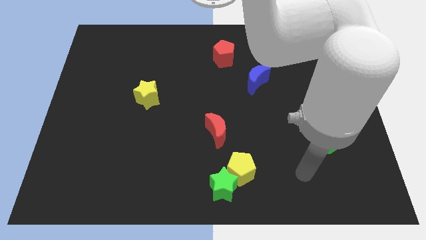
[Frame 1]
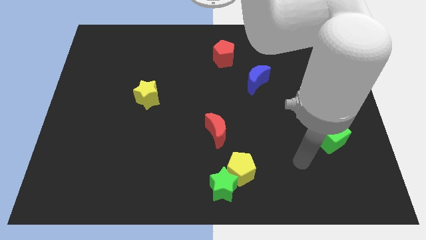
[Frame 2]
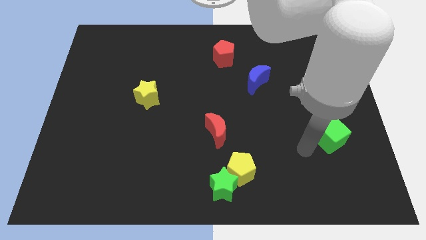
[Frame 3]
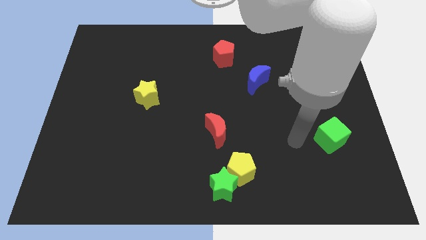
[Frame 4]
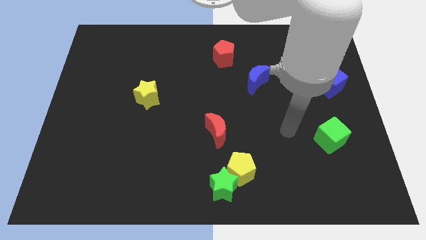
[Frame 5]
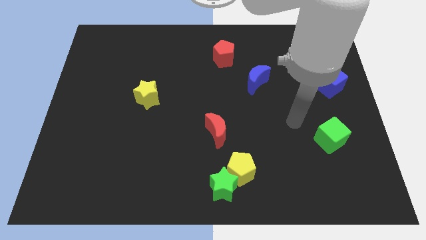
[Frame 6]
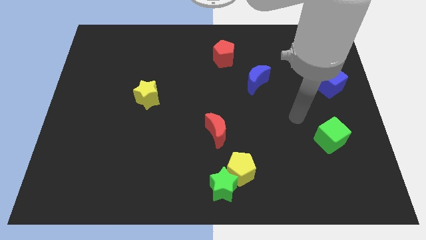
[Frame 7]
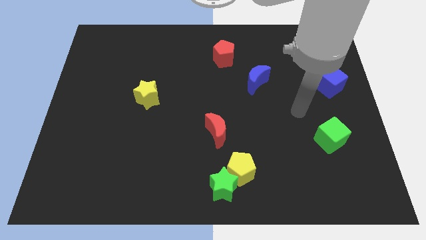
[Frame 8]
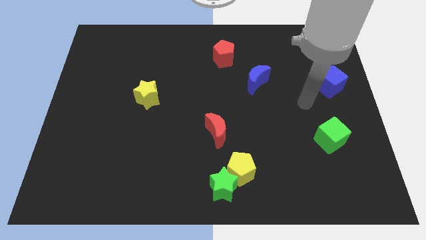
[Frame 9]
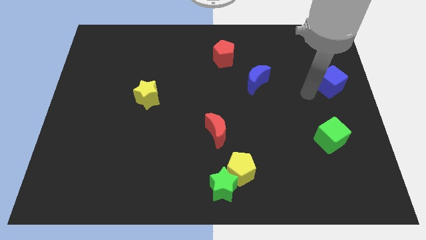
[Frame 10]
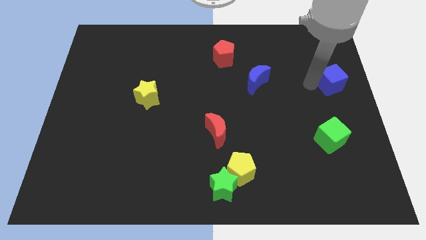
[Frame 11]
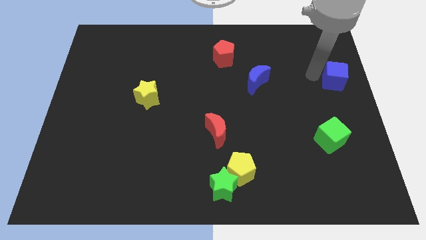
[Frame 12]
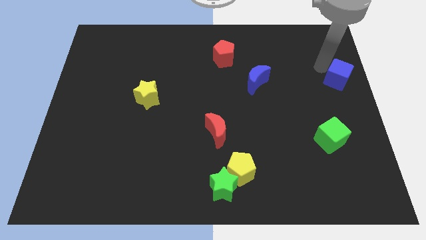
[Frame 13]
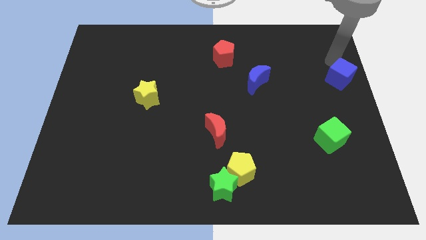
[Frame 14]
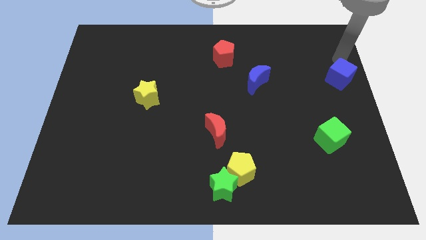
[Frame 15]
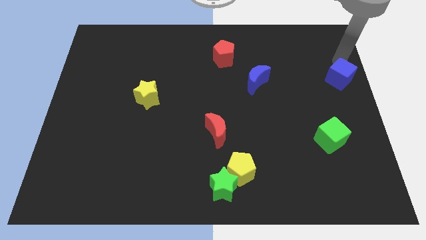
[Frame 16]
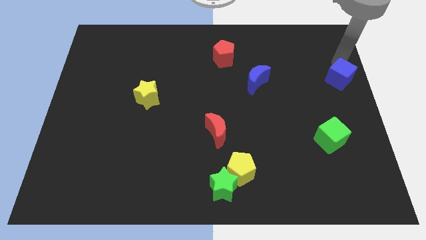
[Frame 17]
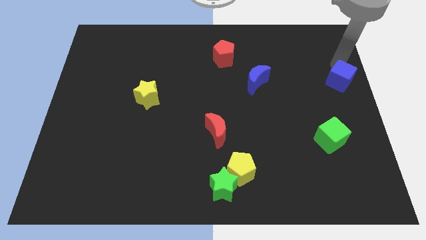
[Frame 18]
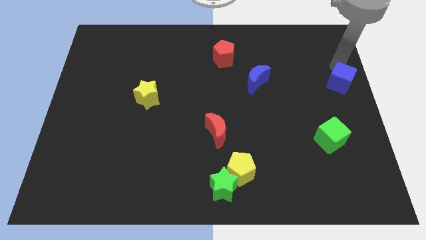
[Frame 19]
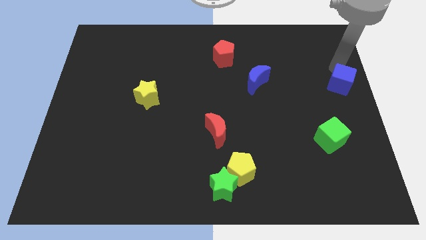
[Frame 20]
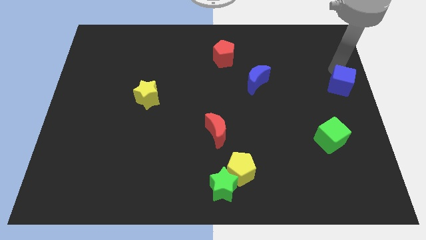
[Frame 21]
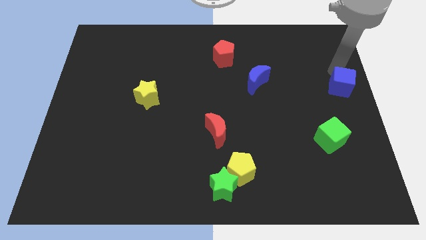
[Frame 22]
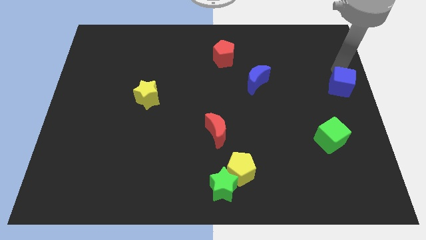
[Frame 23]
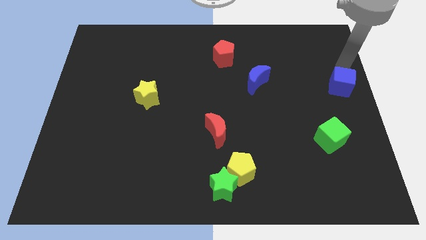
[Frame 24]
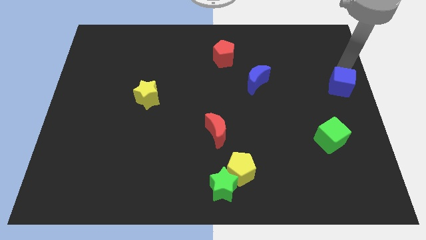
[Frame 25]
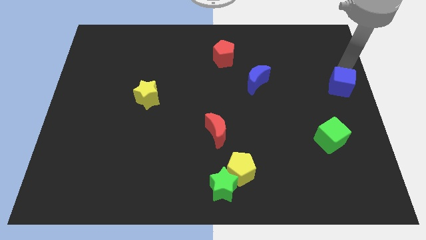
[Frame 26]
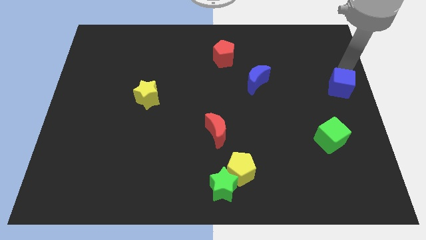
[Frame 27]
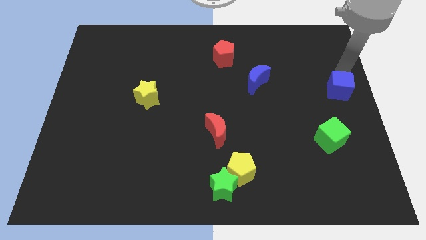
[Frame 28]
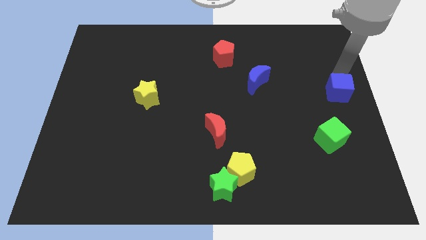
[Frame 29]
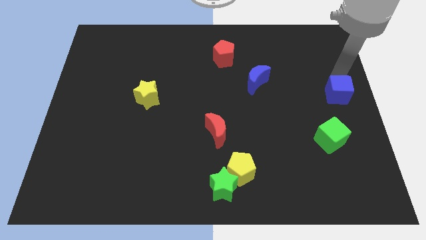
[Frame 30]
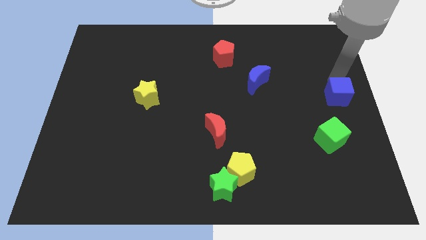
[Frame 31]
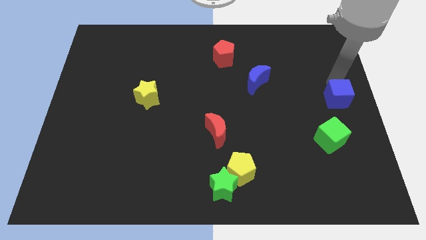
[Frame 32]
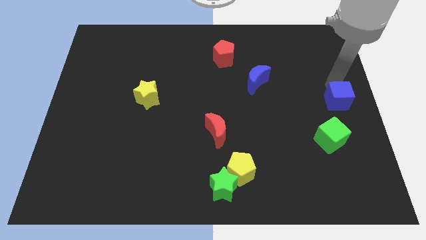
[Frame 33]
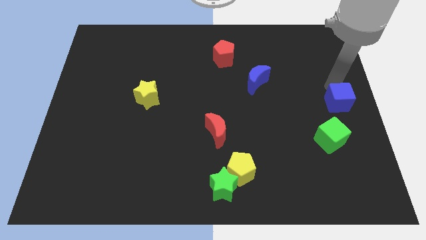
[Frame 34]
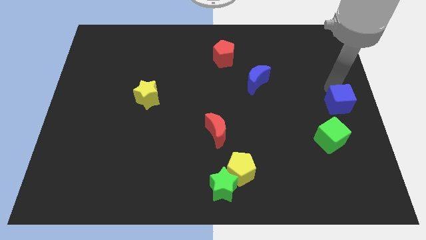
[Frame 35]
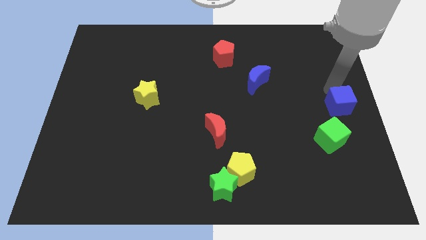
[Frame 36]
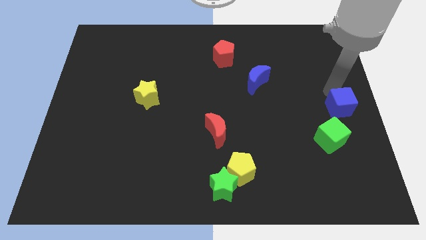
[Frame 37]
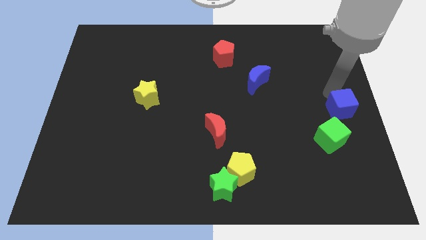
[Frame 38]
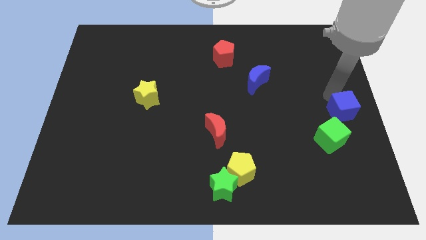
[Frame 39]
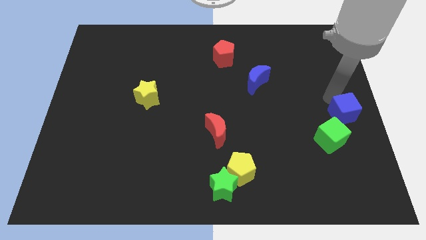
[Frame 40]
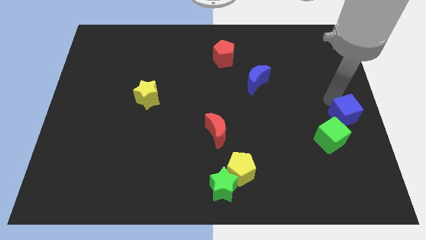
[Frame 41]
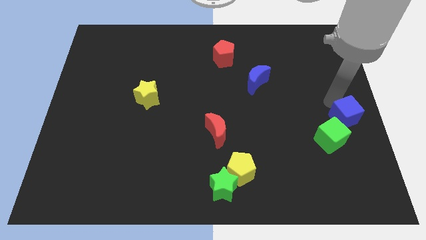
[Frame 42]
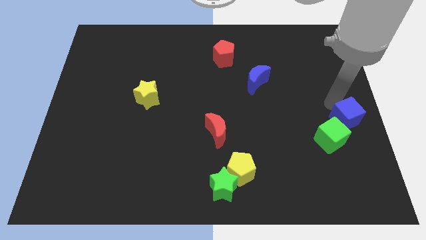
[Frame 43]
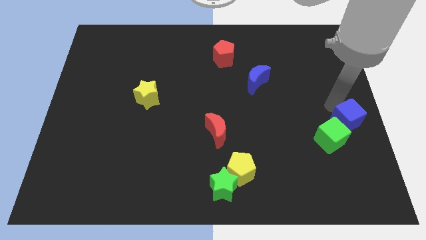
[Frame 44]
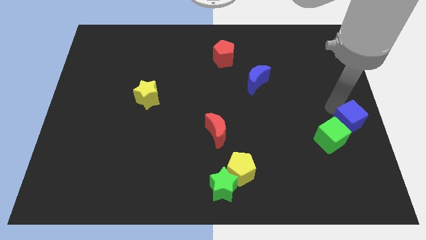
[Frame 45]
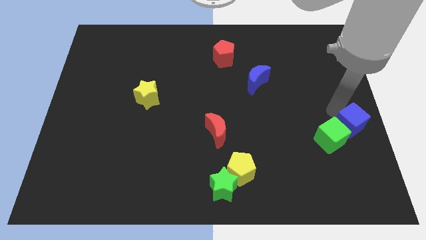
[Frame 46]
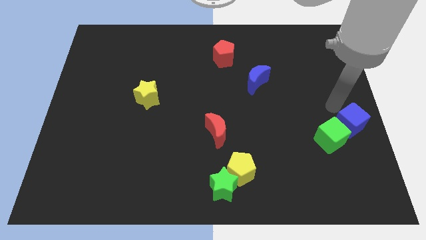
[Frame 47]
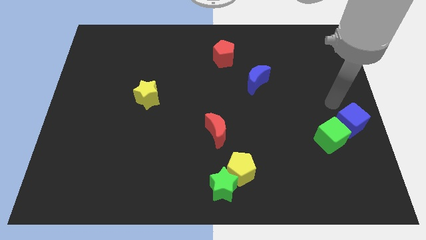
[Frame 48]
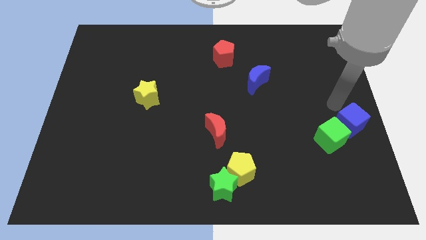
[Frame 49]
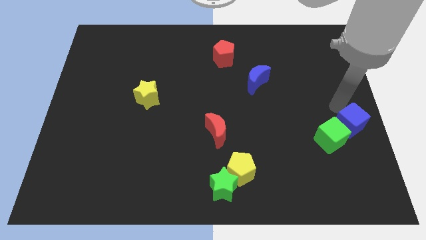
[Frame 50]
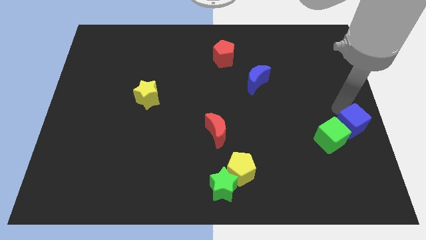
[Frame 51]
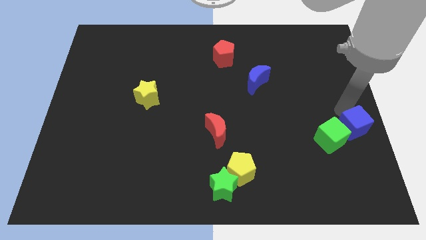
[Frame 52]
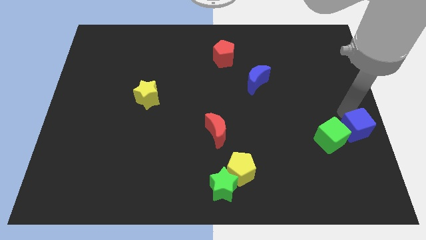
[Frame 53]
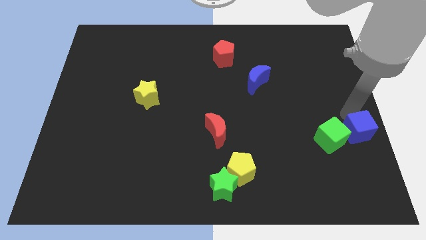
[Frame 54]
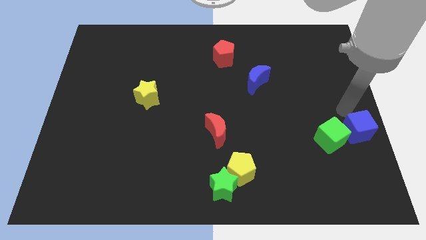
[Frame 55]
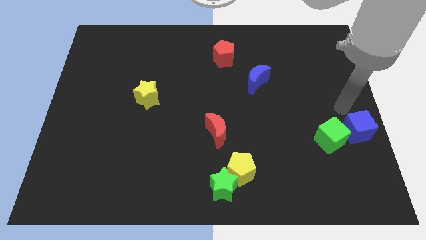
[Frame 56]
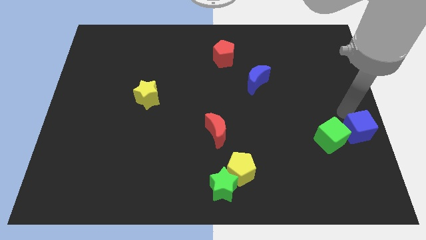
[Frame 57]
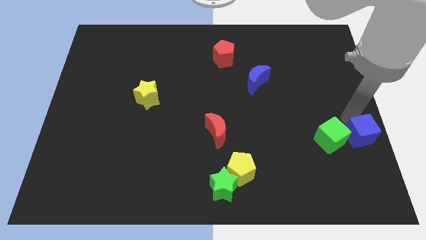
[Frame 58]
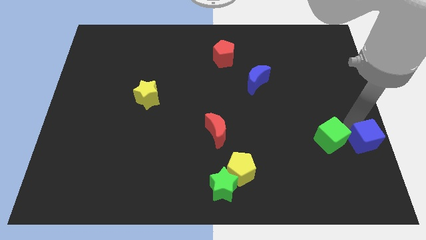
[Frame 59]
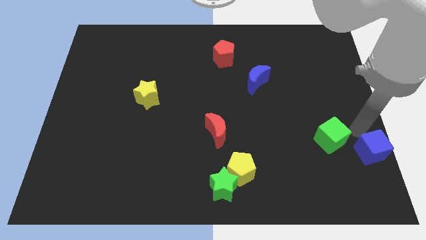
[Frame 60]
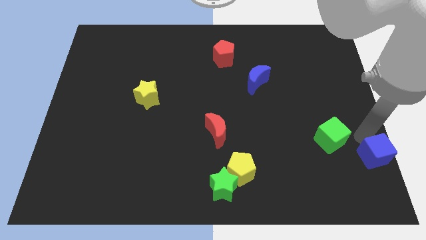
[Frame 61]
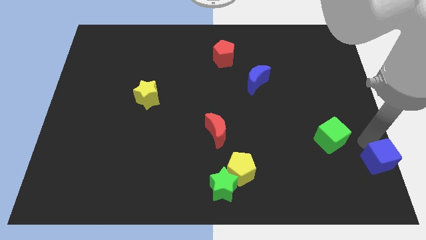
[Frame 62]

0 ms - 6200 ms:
move the blue cube to the lower right corner

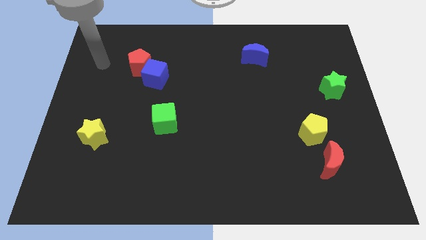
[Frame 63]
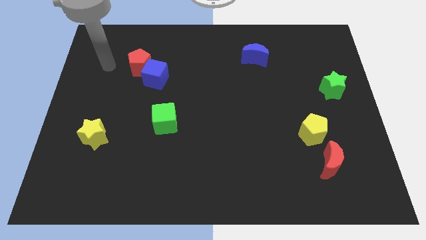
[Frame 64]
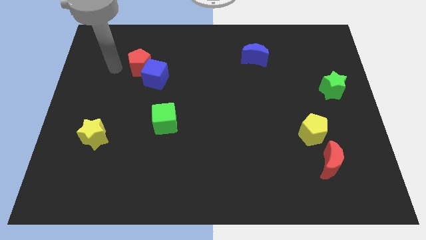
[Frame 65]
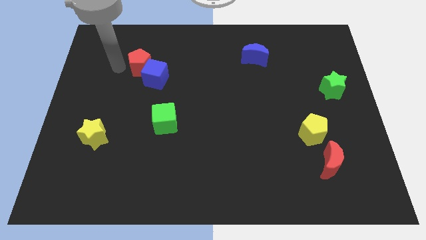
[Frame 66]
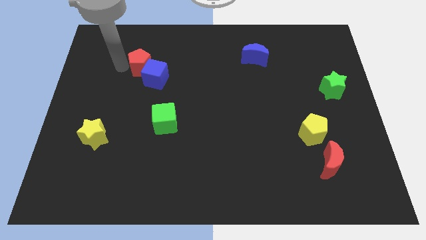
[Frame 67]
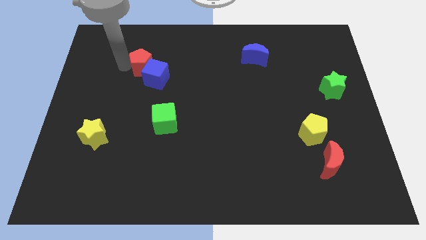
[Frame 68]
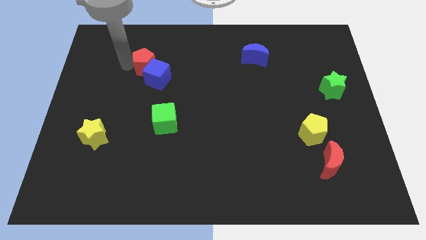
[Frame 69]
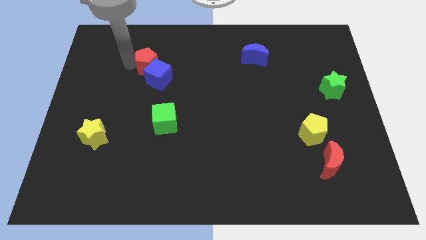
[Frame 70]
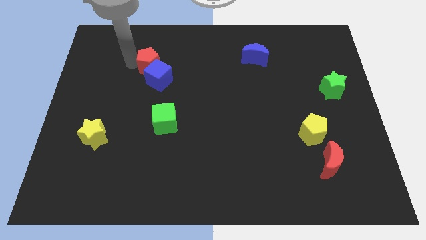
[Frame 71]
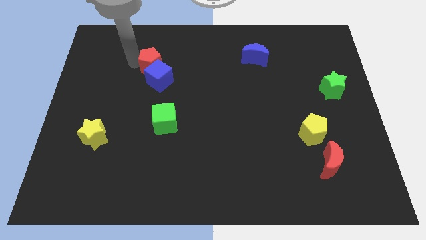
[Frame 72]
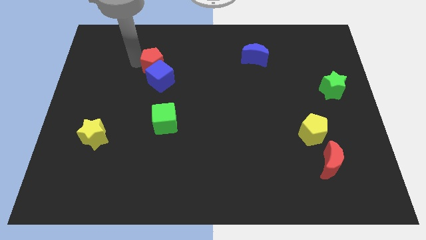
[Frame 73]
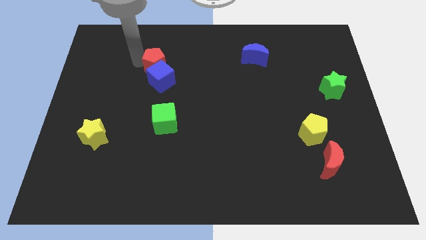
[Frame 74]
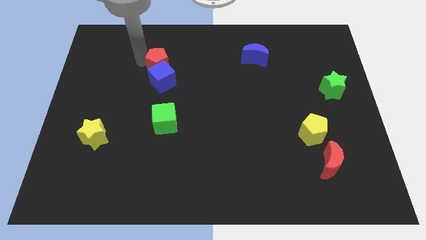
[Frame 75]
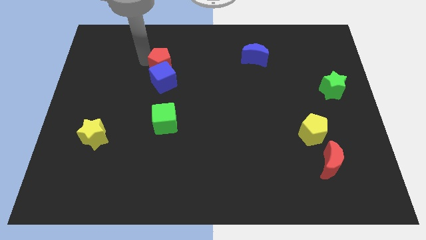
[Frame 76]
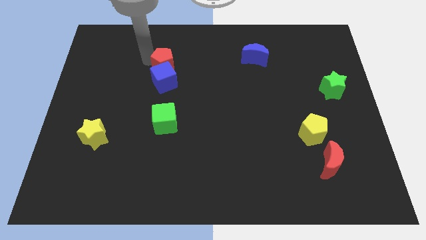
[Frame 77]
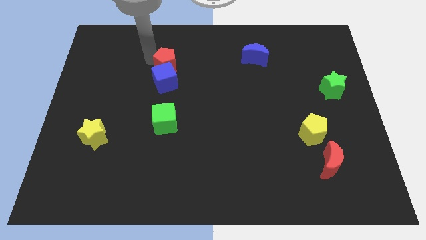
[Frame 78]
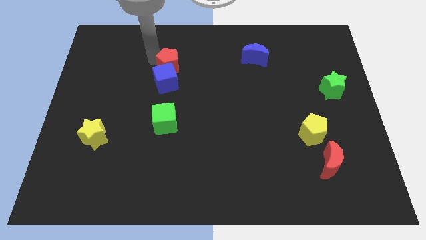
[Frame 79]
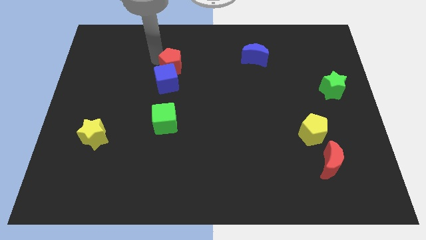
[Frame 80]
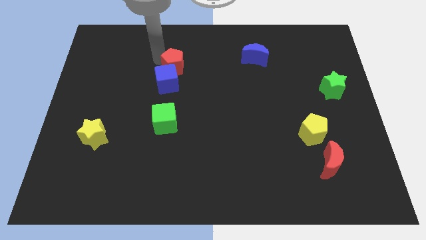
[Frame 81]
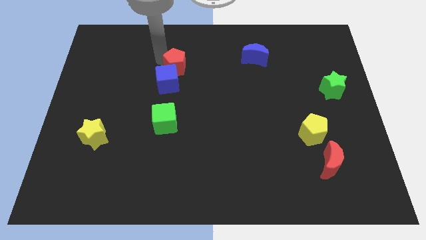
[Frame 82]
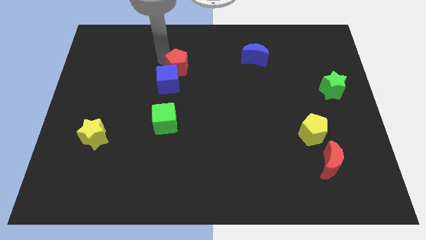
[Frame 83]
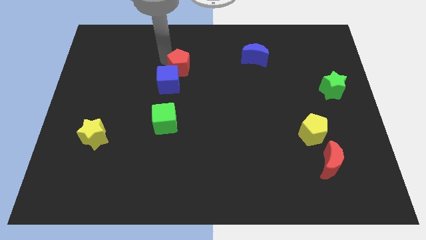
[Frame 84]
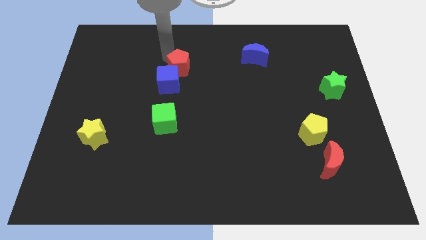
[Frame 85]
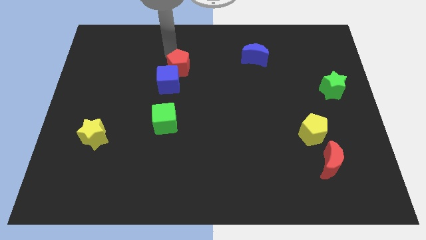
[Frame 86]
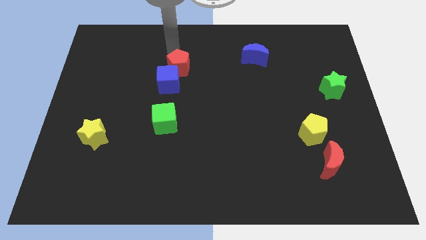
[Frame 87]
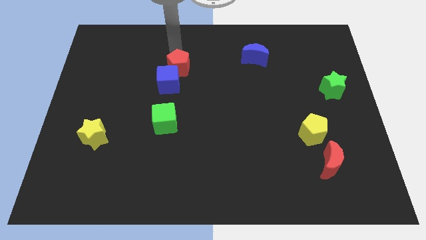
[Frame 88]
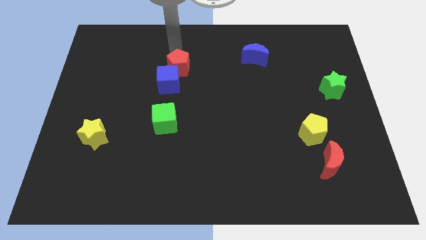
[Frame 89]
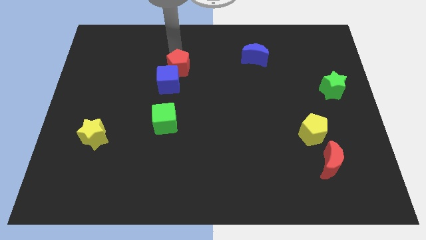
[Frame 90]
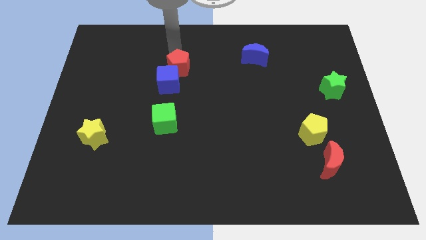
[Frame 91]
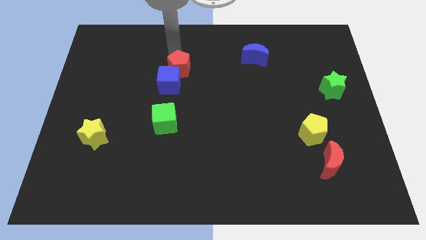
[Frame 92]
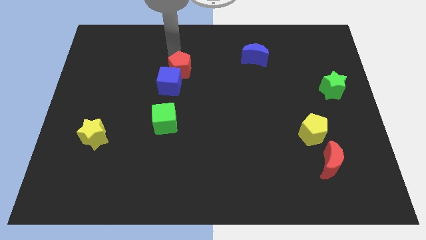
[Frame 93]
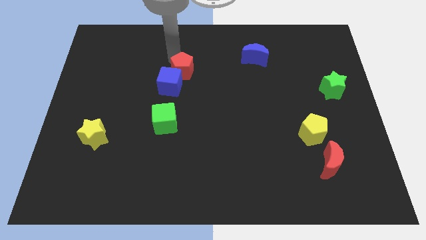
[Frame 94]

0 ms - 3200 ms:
put the red pentagon to the middle
